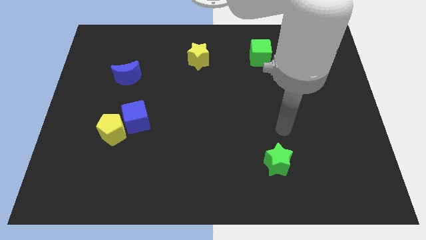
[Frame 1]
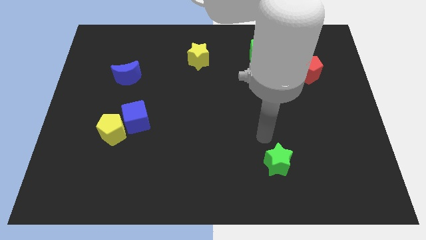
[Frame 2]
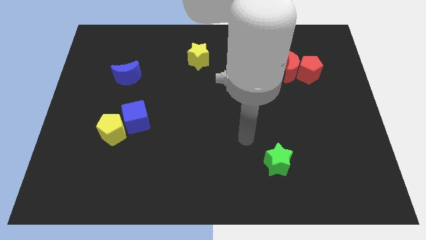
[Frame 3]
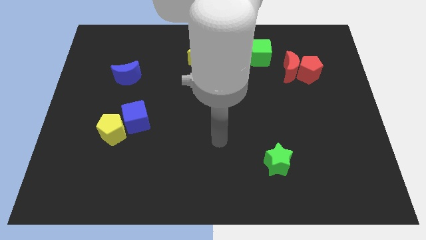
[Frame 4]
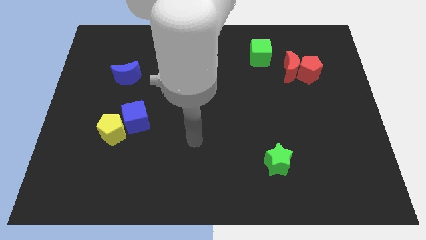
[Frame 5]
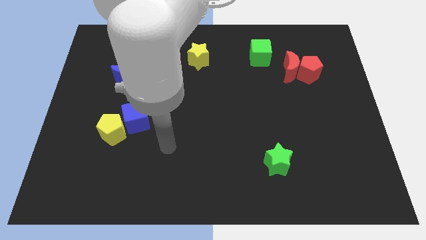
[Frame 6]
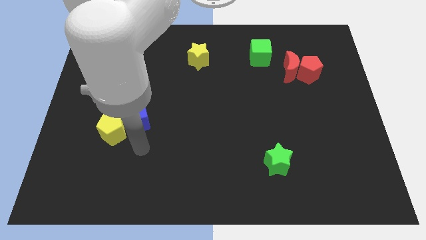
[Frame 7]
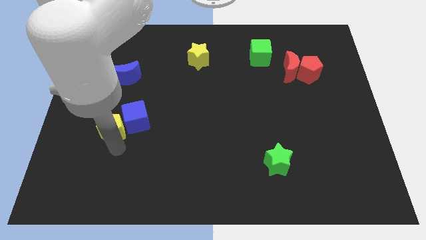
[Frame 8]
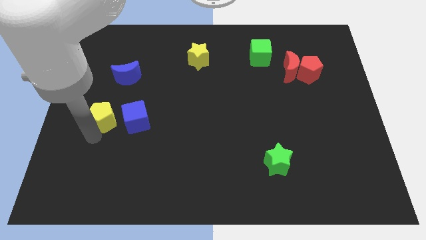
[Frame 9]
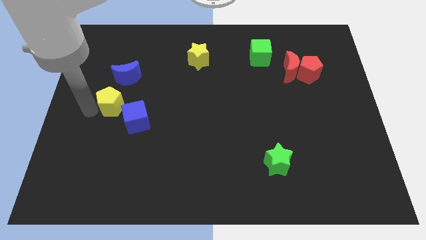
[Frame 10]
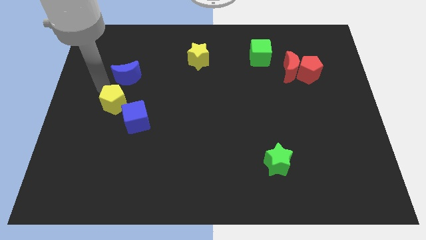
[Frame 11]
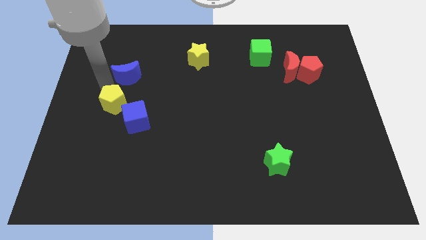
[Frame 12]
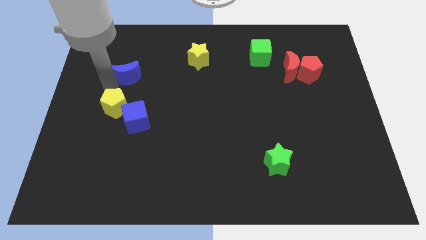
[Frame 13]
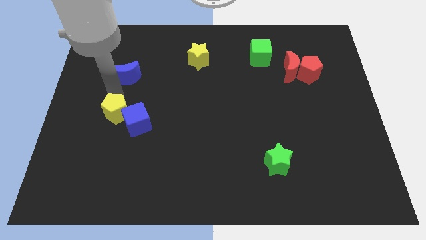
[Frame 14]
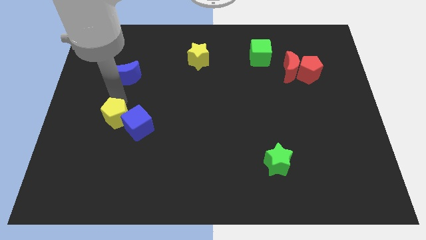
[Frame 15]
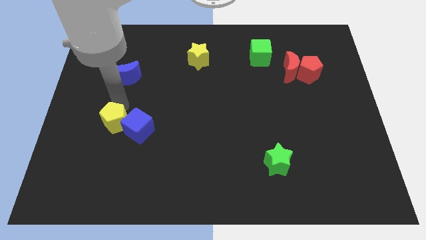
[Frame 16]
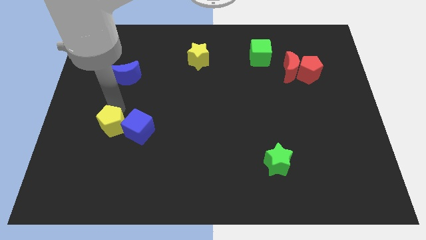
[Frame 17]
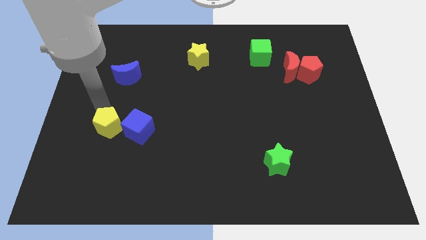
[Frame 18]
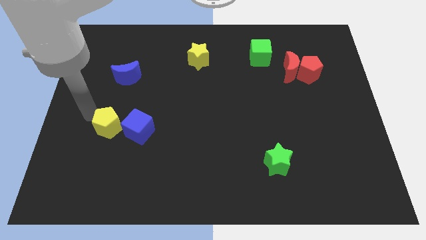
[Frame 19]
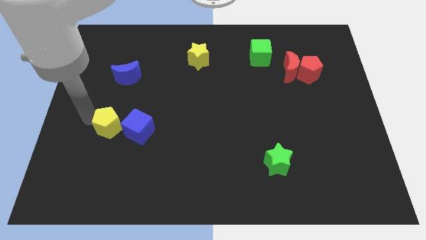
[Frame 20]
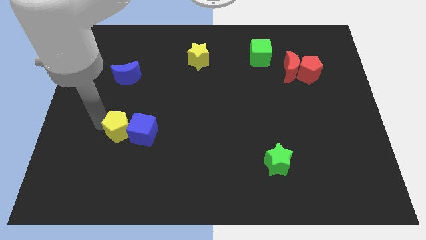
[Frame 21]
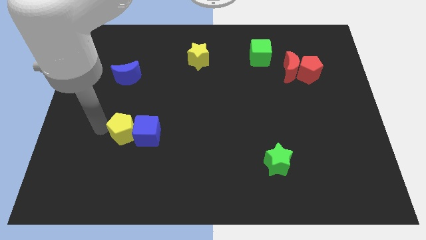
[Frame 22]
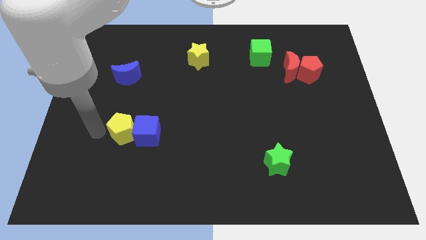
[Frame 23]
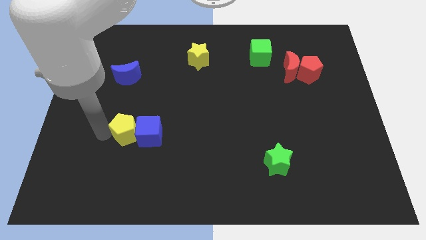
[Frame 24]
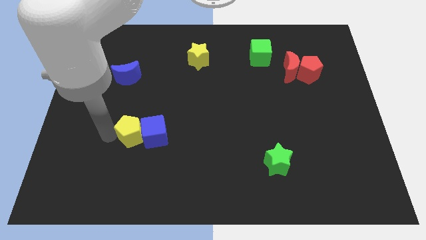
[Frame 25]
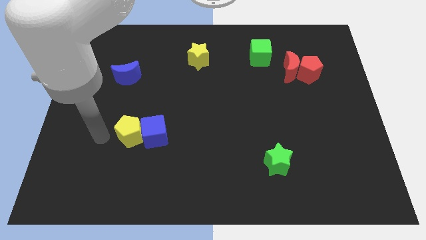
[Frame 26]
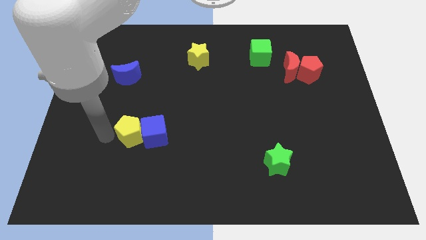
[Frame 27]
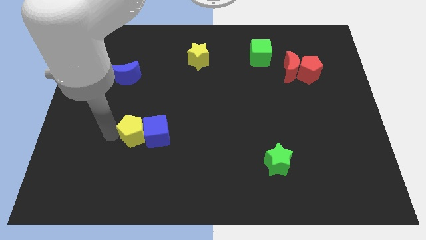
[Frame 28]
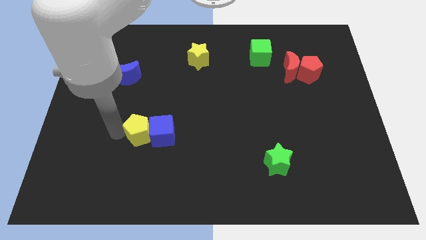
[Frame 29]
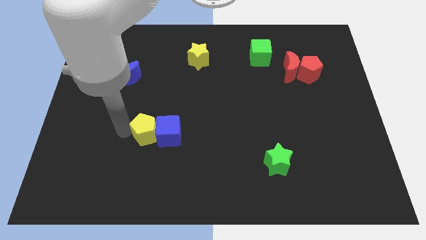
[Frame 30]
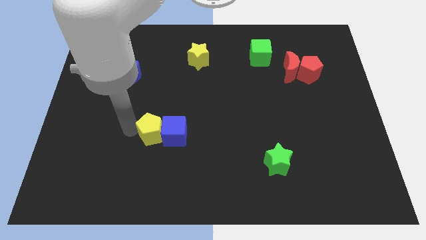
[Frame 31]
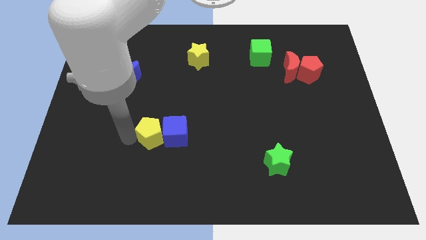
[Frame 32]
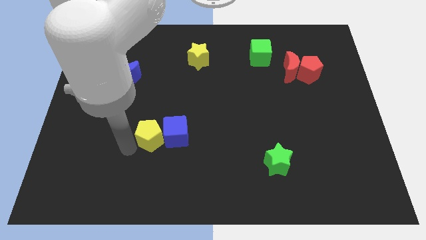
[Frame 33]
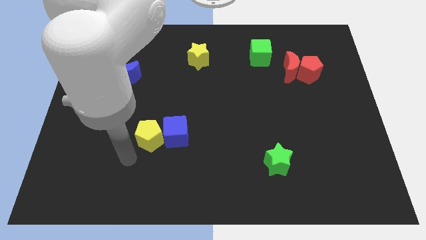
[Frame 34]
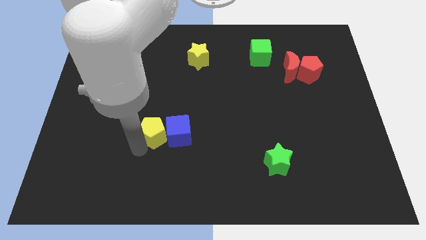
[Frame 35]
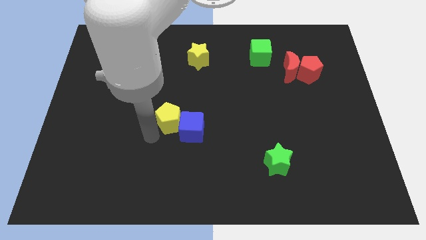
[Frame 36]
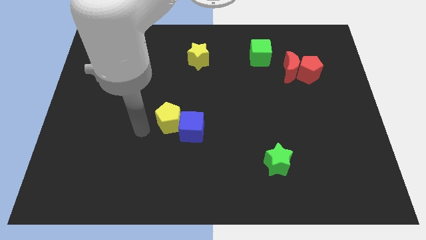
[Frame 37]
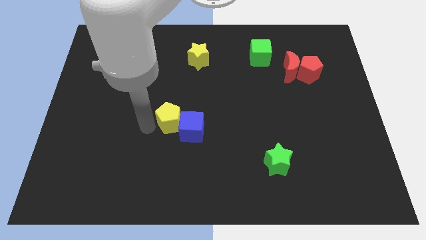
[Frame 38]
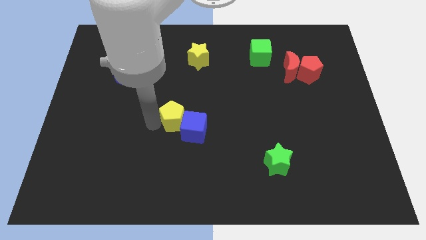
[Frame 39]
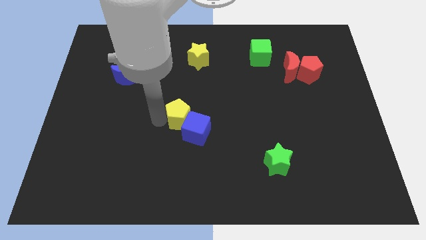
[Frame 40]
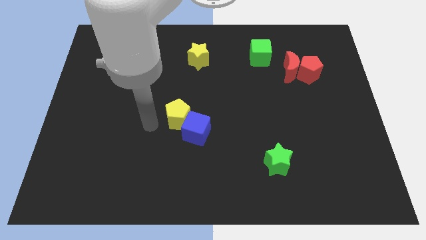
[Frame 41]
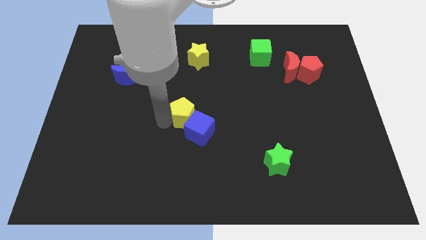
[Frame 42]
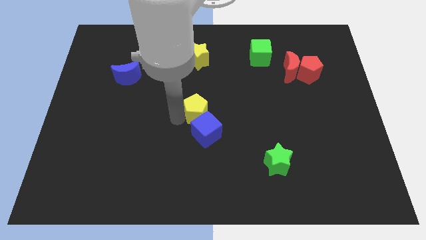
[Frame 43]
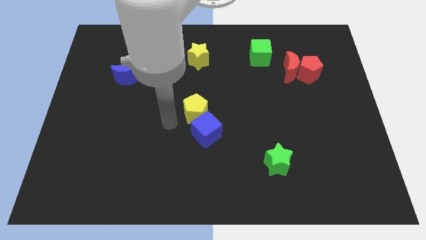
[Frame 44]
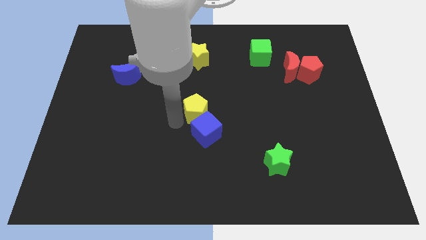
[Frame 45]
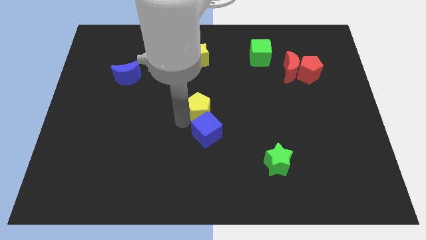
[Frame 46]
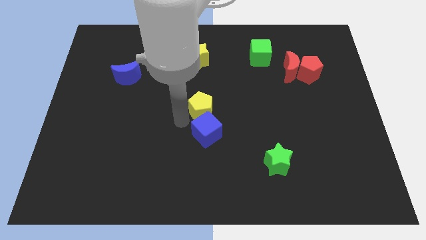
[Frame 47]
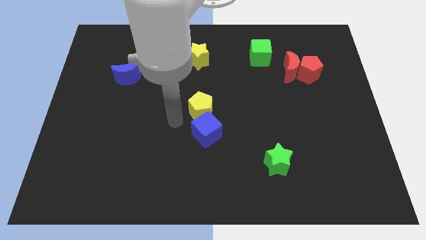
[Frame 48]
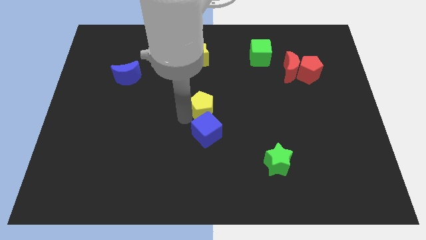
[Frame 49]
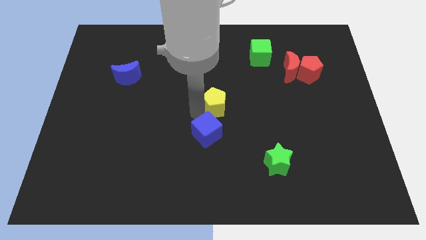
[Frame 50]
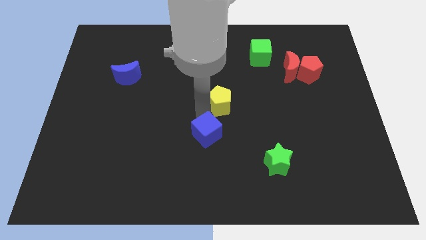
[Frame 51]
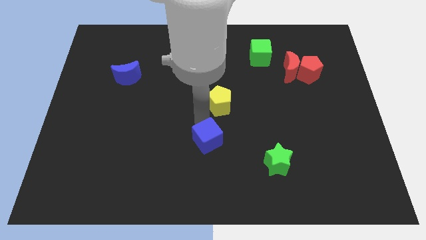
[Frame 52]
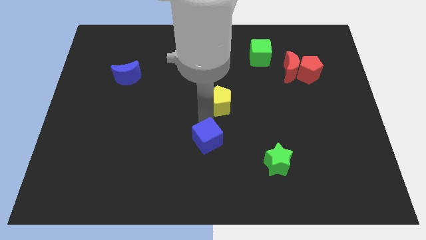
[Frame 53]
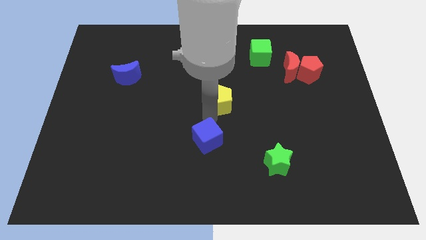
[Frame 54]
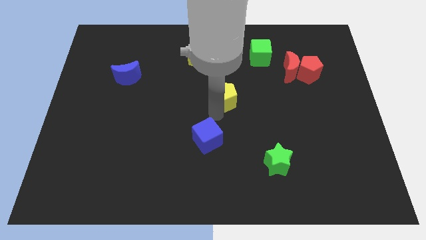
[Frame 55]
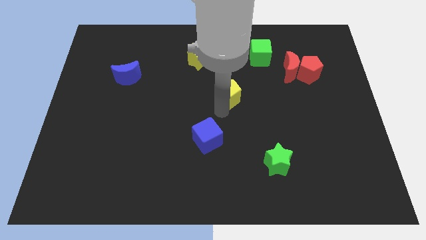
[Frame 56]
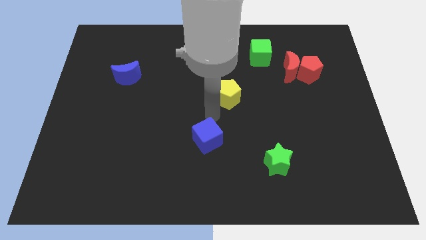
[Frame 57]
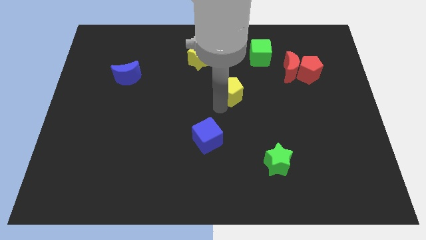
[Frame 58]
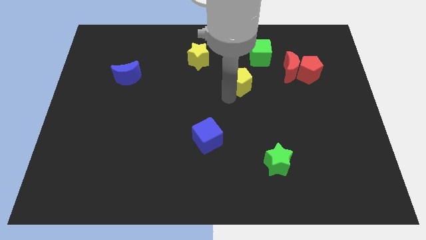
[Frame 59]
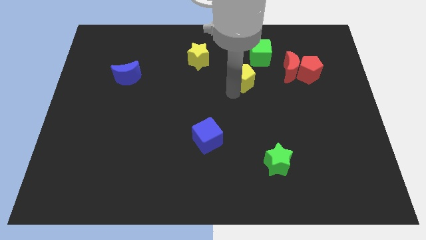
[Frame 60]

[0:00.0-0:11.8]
put the yellow pentagon to the left side of the red moon

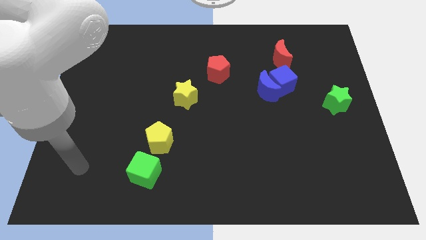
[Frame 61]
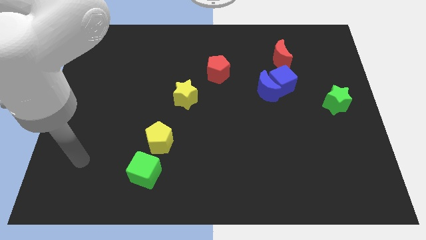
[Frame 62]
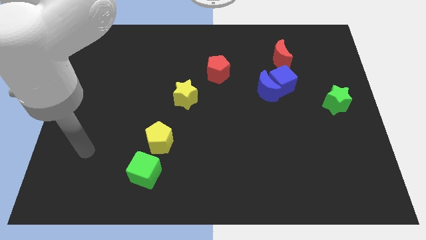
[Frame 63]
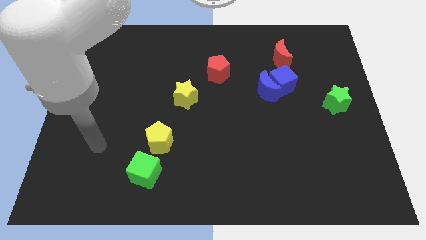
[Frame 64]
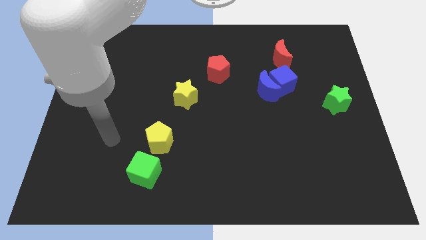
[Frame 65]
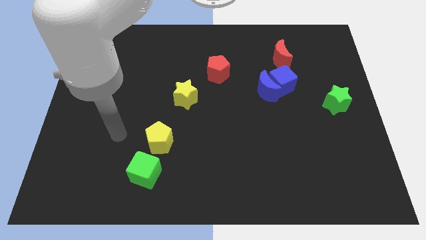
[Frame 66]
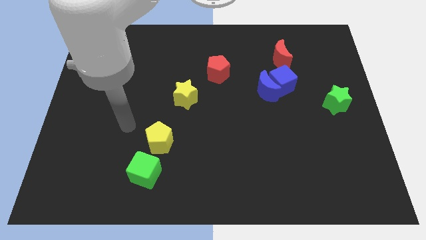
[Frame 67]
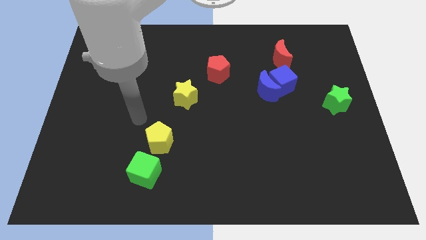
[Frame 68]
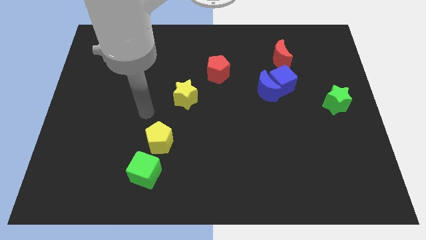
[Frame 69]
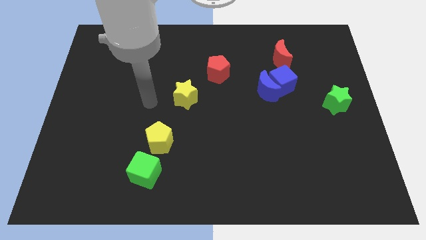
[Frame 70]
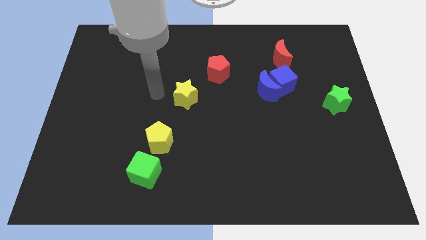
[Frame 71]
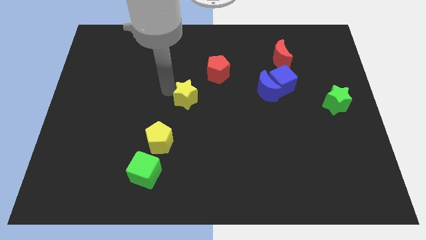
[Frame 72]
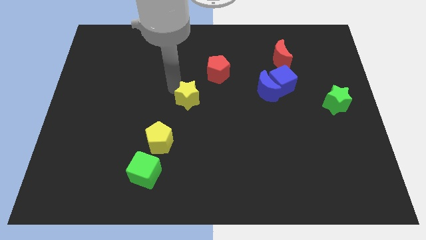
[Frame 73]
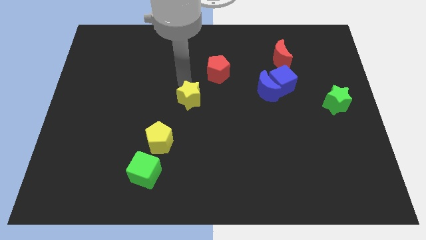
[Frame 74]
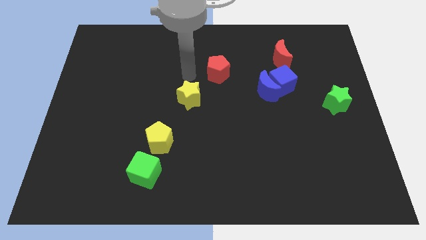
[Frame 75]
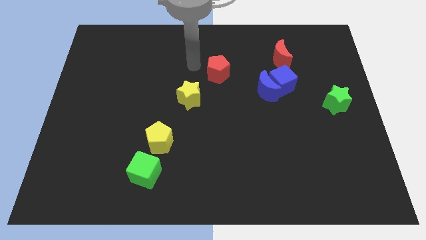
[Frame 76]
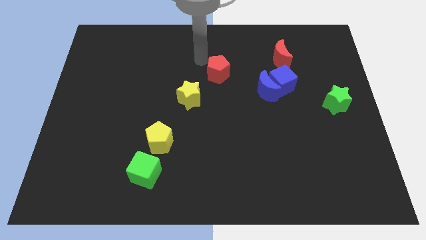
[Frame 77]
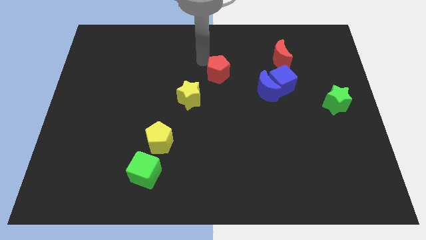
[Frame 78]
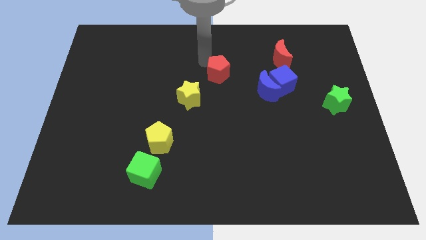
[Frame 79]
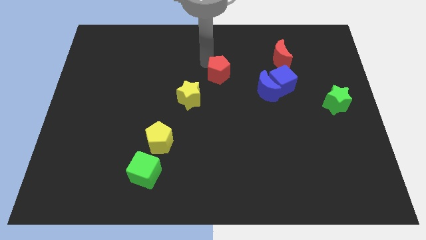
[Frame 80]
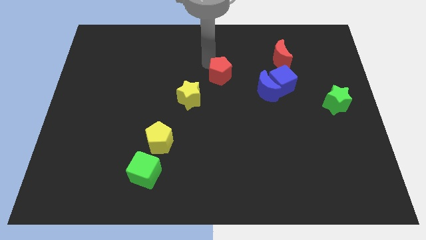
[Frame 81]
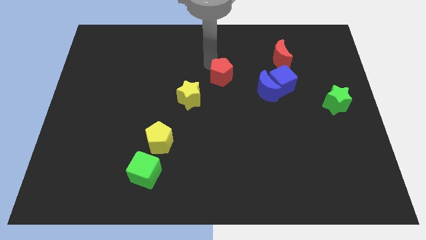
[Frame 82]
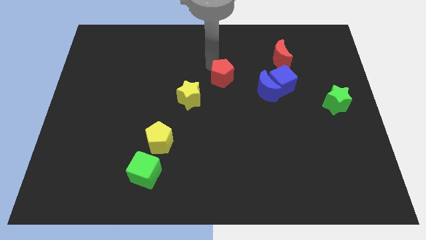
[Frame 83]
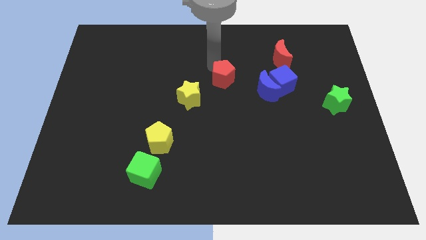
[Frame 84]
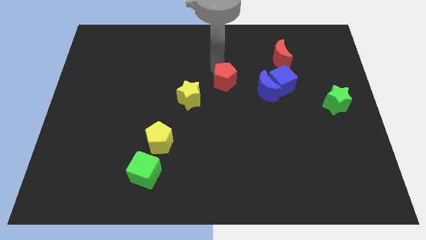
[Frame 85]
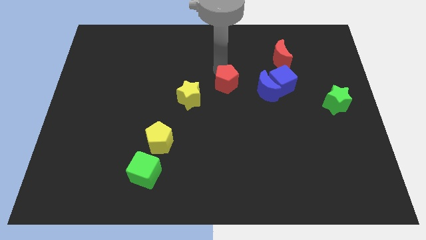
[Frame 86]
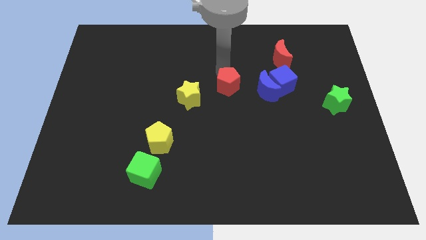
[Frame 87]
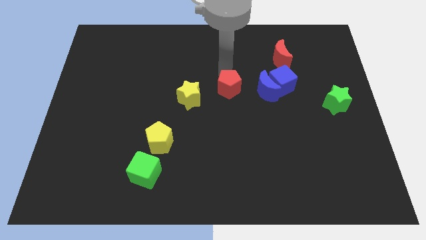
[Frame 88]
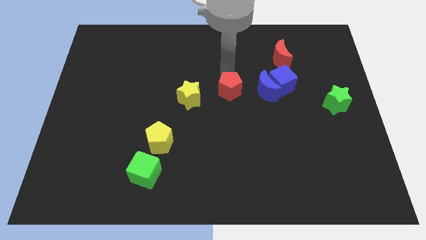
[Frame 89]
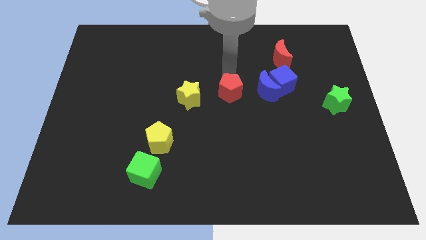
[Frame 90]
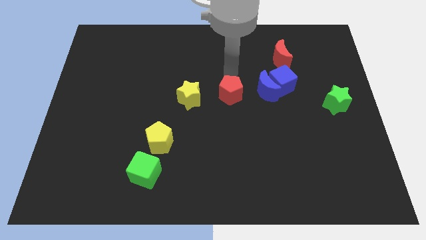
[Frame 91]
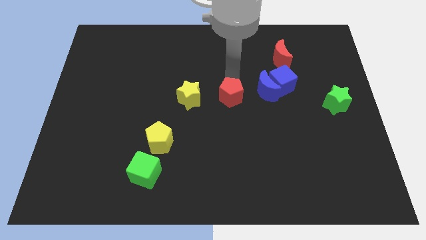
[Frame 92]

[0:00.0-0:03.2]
push the red pentagon diagonally down and to the left of the blue moon
